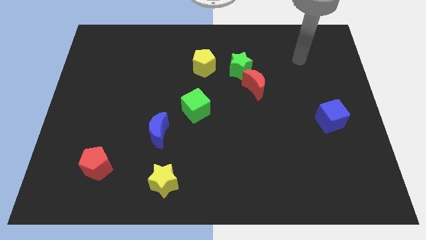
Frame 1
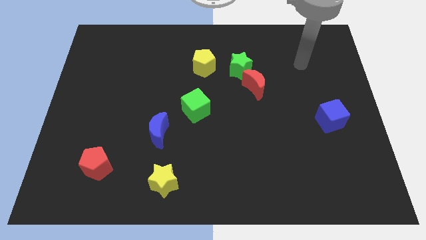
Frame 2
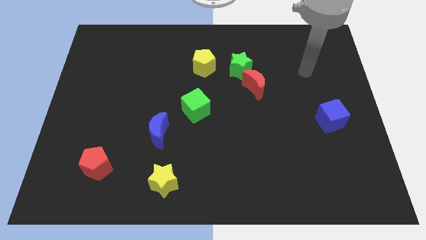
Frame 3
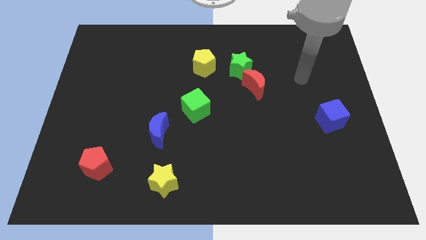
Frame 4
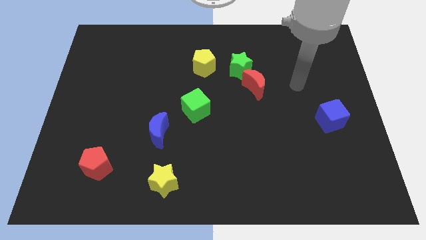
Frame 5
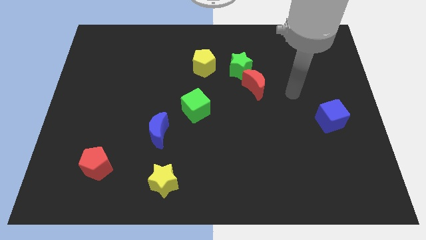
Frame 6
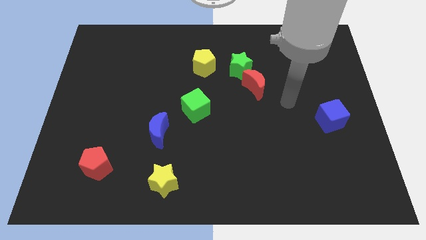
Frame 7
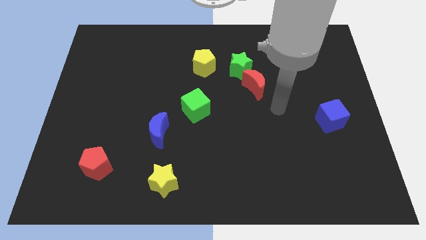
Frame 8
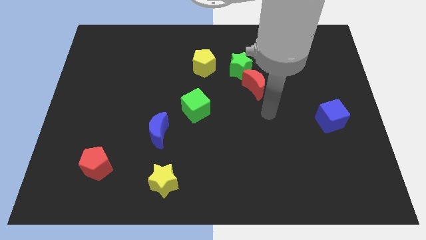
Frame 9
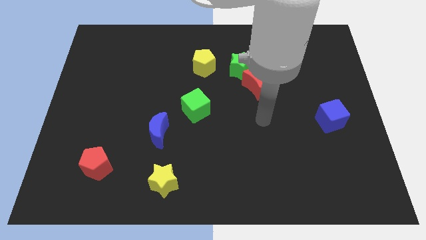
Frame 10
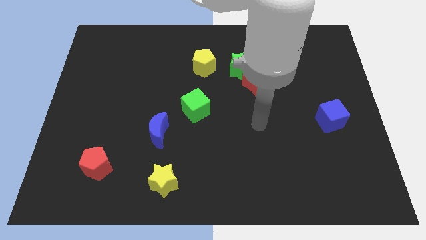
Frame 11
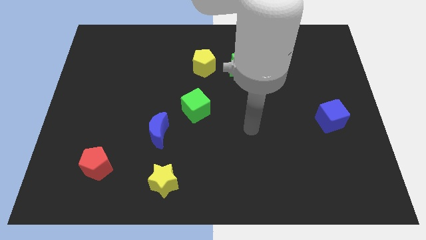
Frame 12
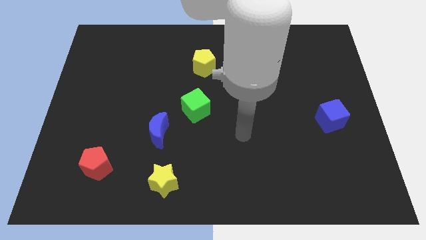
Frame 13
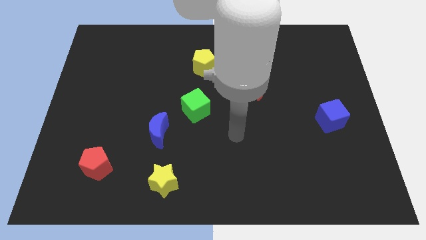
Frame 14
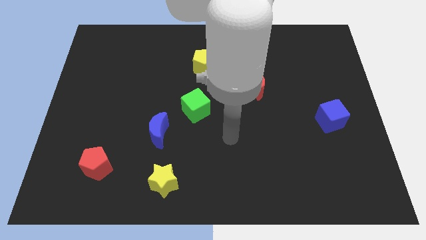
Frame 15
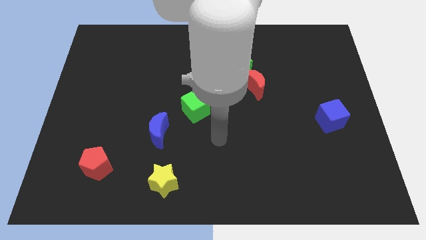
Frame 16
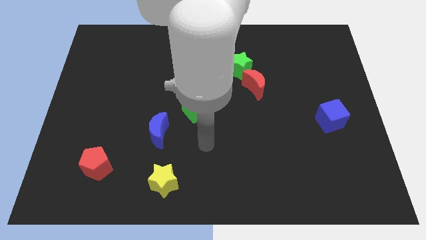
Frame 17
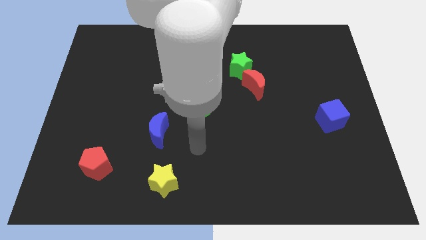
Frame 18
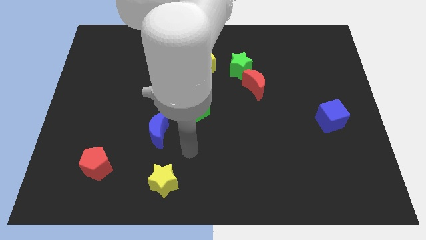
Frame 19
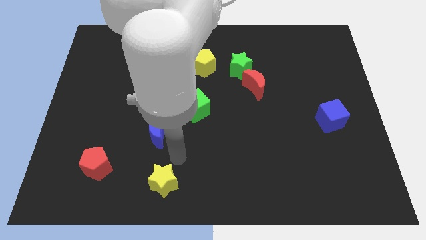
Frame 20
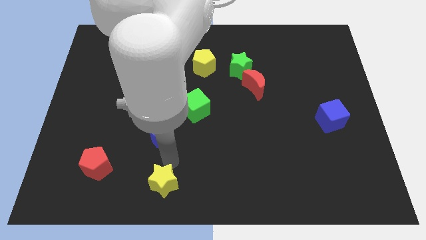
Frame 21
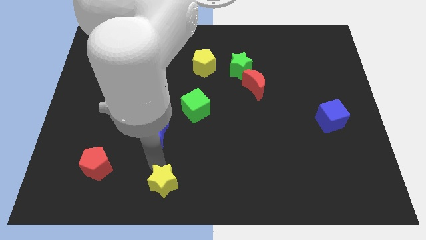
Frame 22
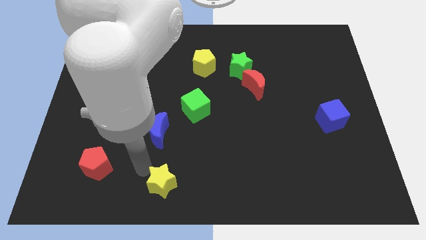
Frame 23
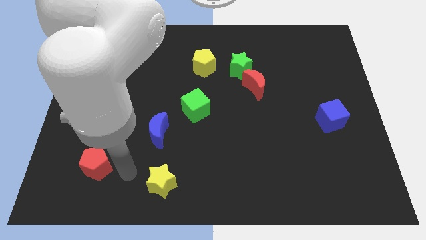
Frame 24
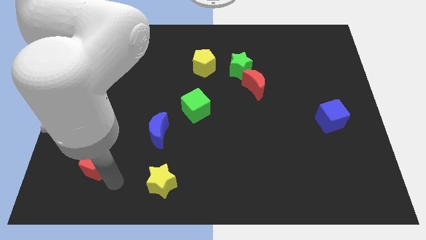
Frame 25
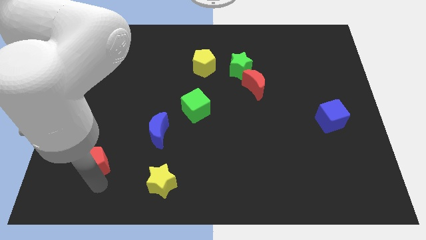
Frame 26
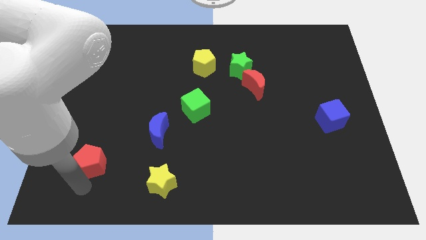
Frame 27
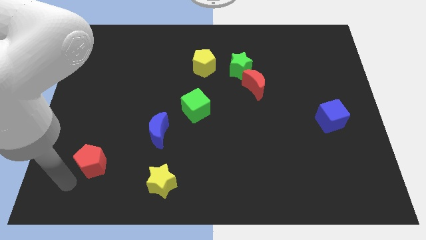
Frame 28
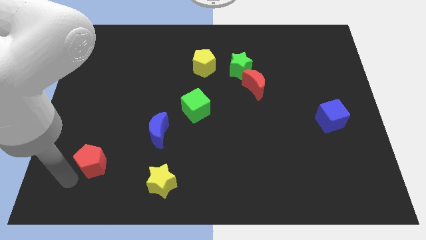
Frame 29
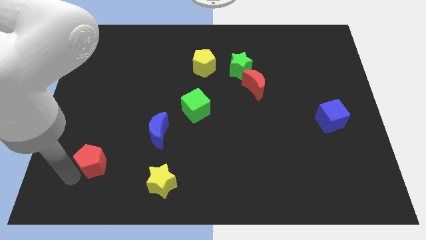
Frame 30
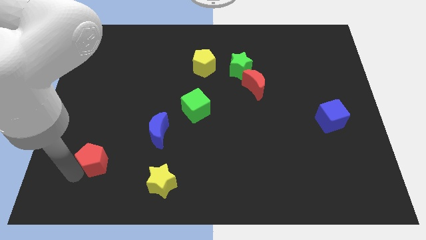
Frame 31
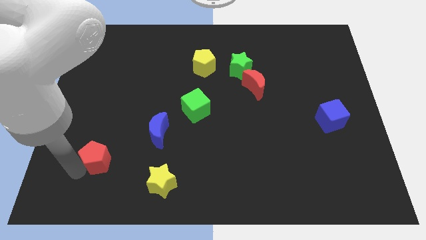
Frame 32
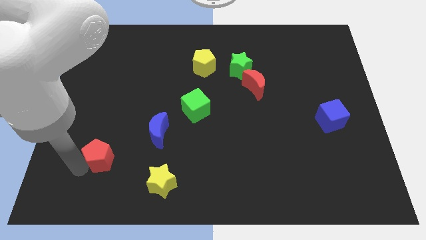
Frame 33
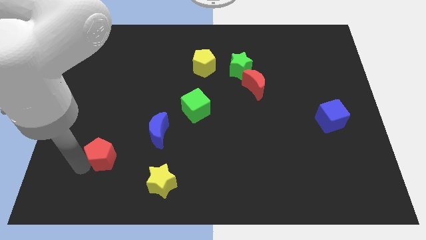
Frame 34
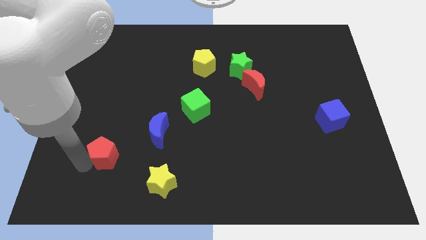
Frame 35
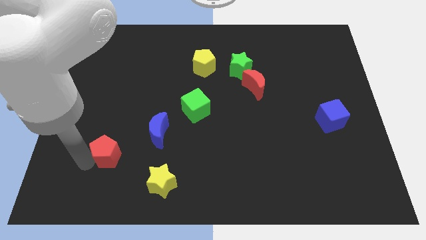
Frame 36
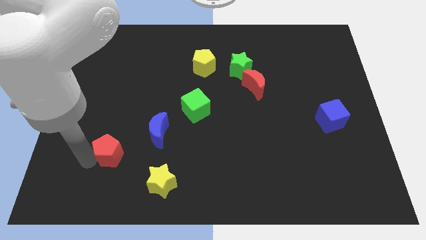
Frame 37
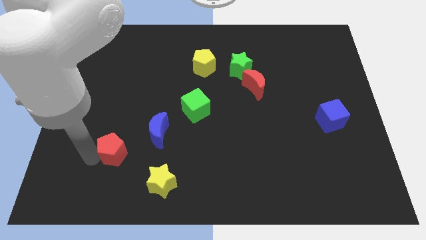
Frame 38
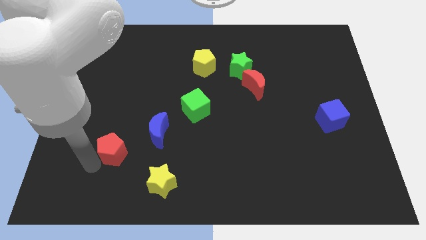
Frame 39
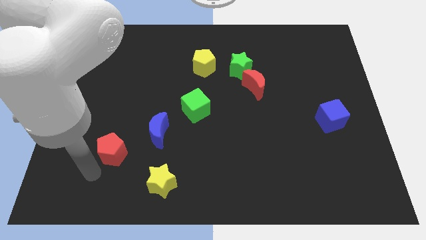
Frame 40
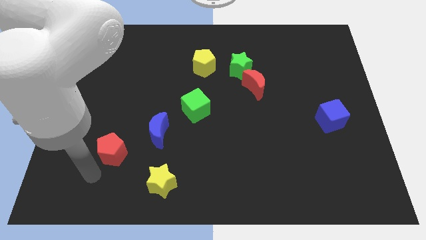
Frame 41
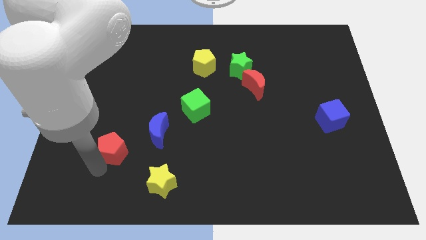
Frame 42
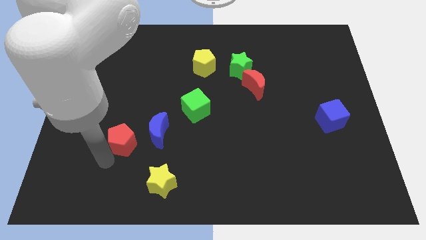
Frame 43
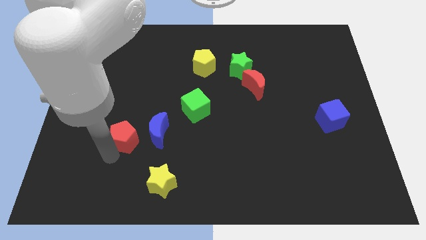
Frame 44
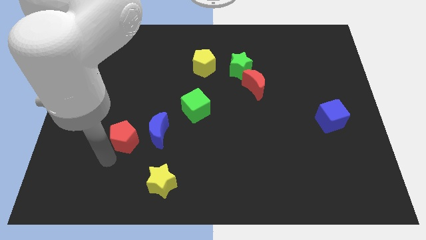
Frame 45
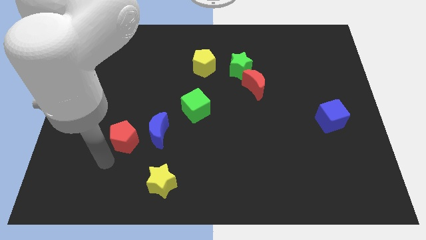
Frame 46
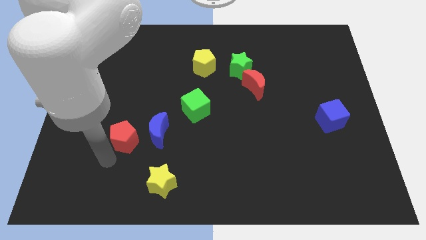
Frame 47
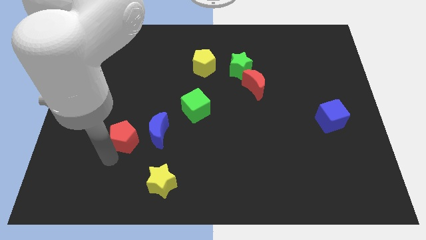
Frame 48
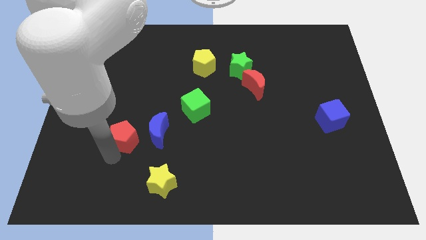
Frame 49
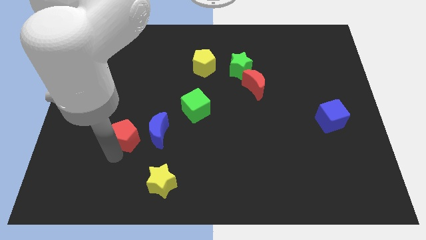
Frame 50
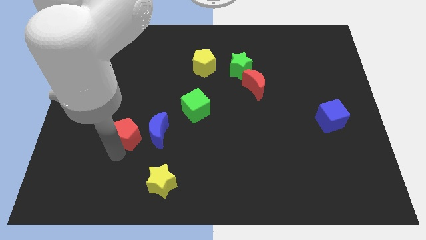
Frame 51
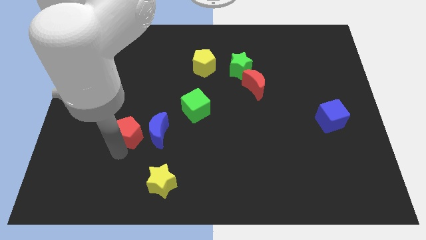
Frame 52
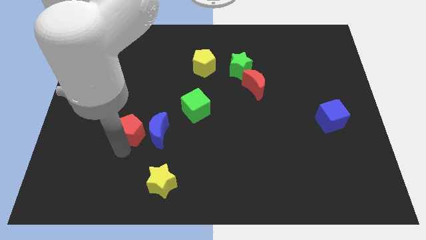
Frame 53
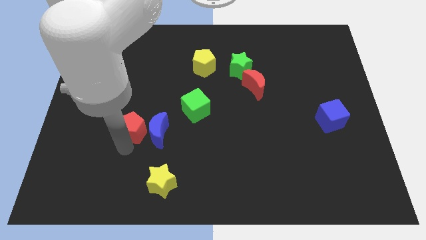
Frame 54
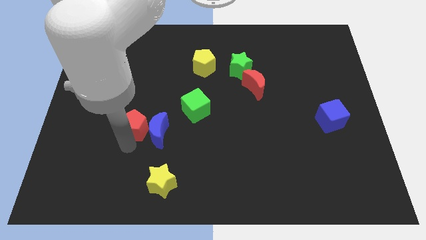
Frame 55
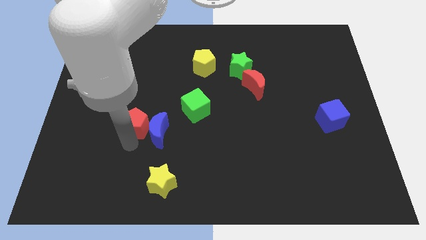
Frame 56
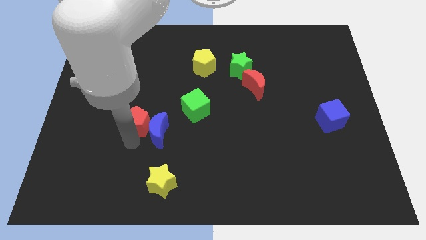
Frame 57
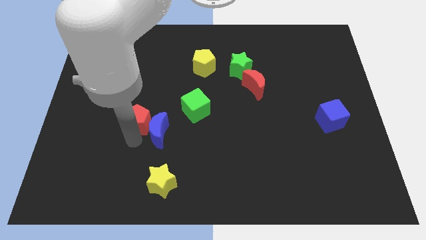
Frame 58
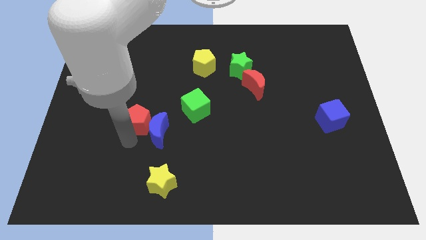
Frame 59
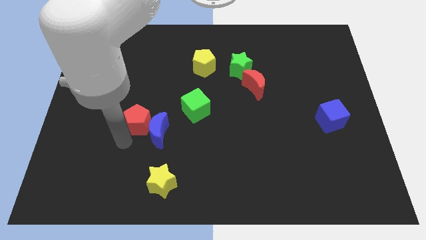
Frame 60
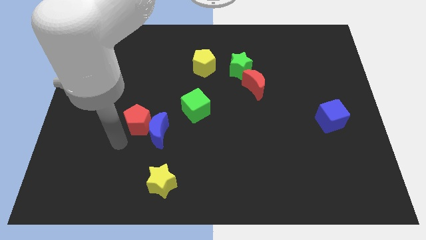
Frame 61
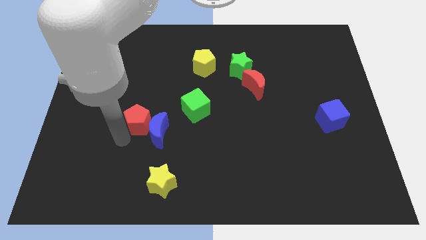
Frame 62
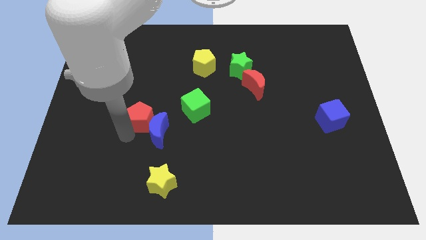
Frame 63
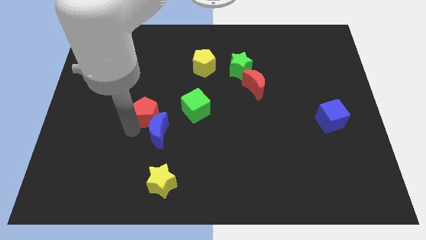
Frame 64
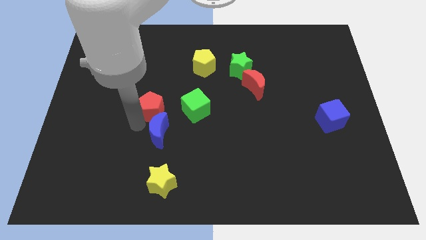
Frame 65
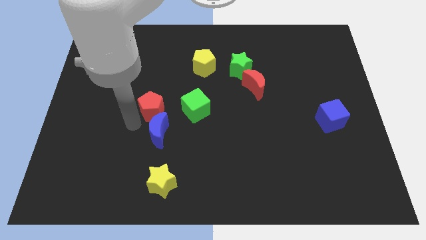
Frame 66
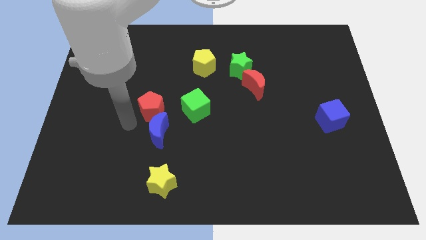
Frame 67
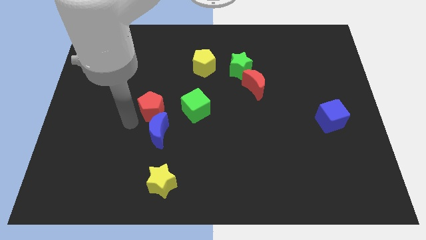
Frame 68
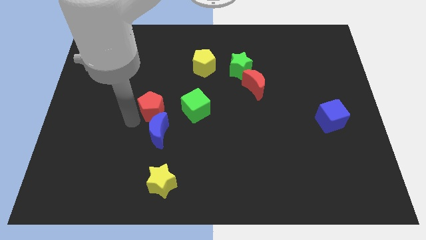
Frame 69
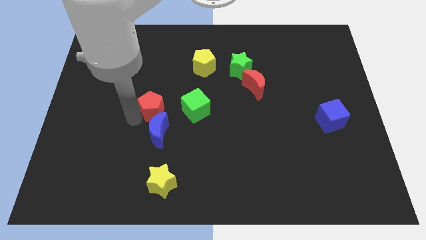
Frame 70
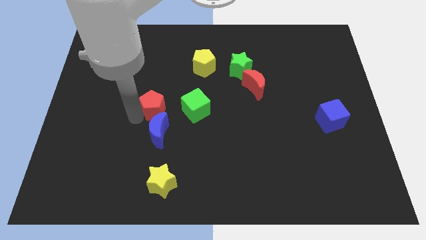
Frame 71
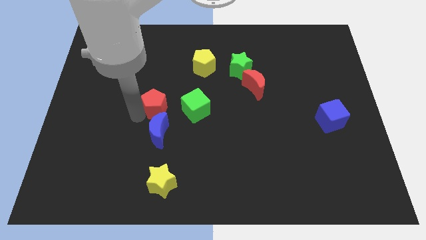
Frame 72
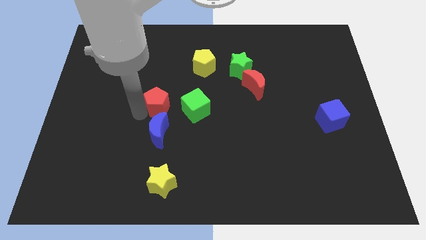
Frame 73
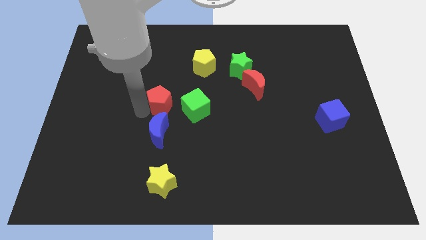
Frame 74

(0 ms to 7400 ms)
put the red pentagon diagonally up and to the left of the green cube

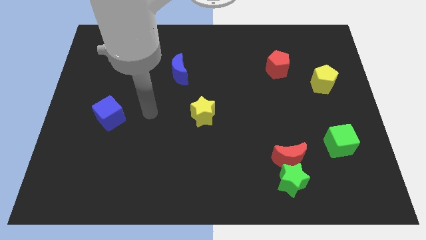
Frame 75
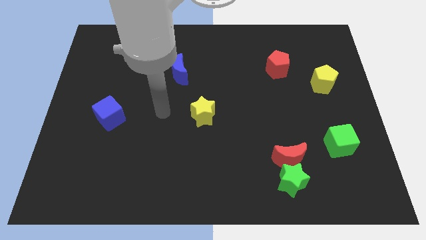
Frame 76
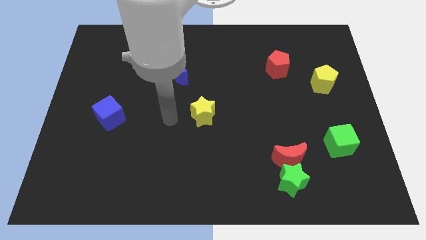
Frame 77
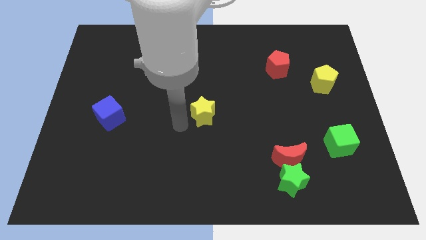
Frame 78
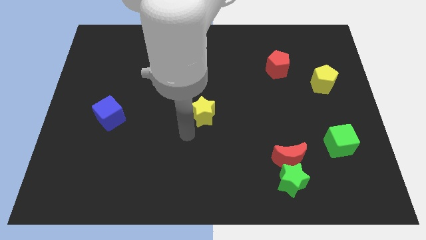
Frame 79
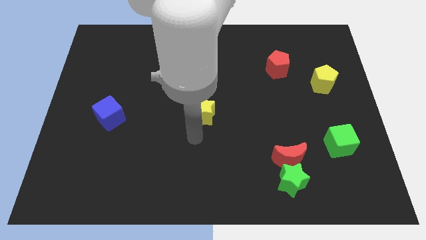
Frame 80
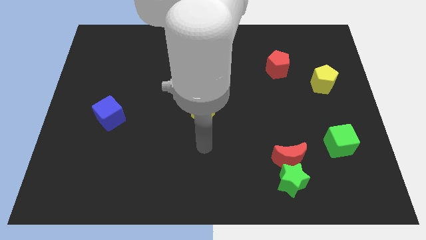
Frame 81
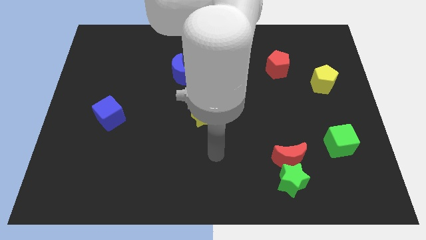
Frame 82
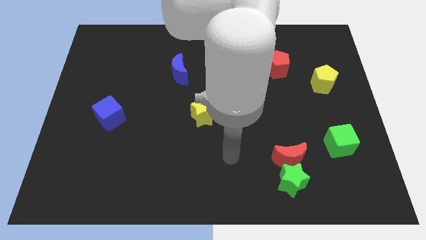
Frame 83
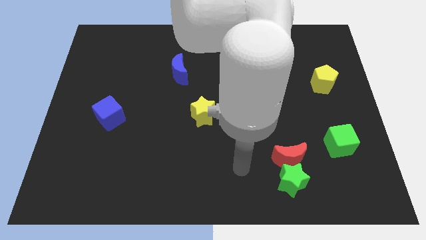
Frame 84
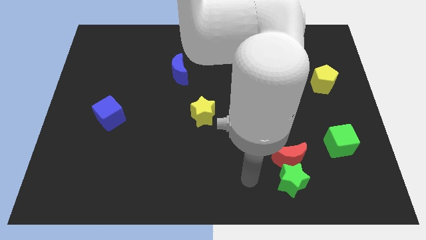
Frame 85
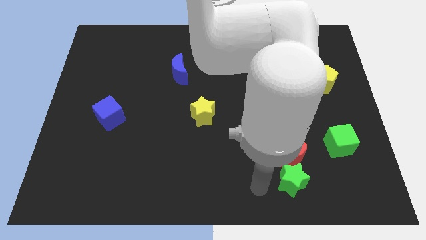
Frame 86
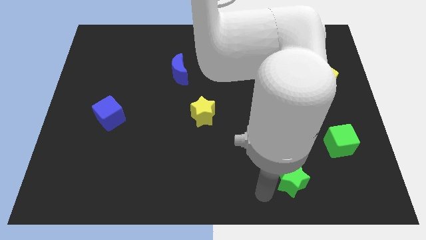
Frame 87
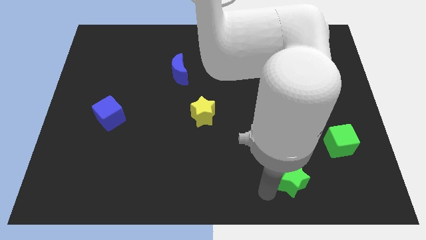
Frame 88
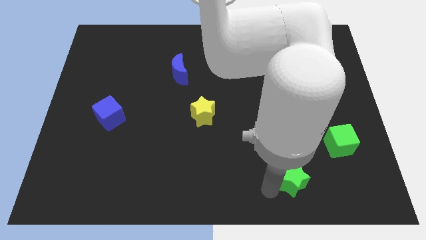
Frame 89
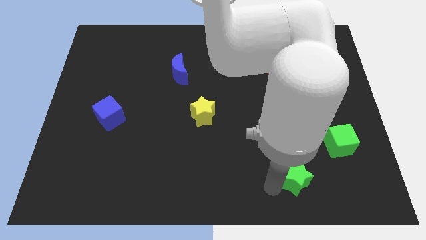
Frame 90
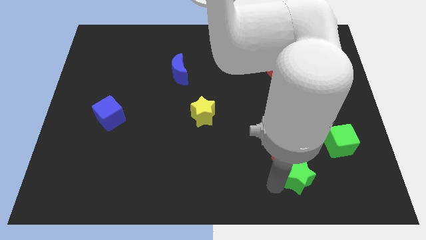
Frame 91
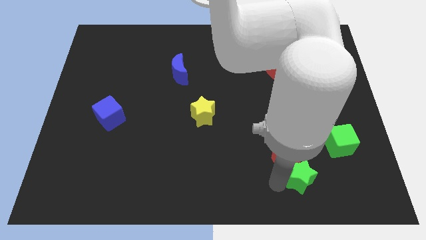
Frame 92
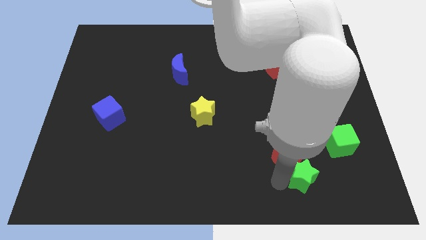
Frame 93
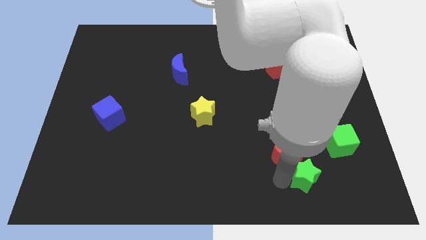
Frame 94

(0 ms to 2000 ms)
put the green star to the right of the red moon
